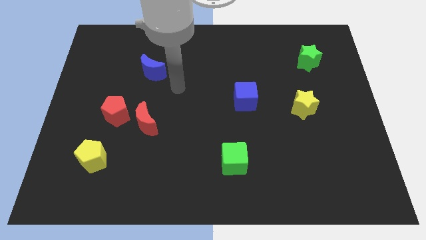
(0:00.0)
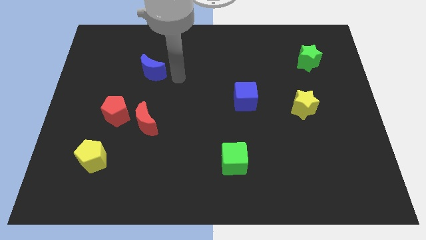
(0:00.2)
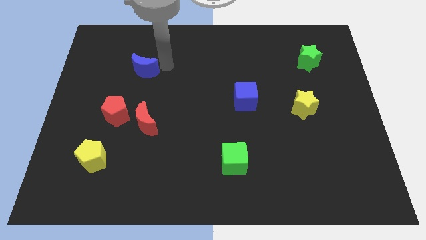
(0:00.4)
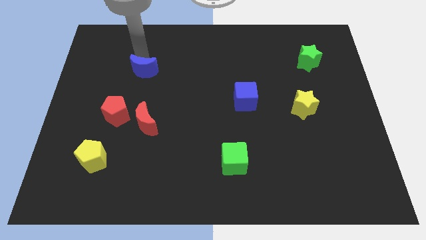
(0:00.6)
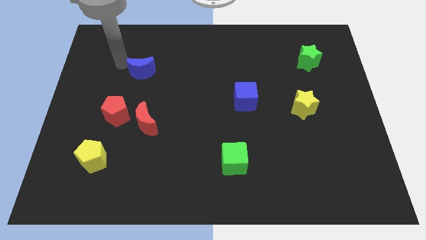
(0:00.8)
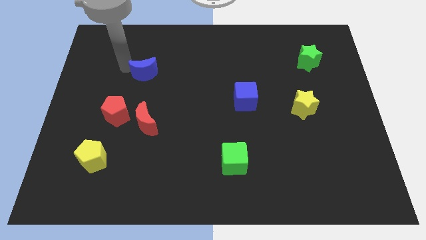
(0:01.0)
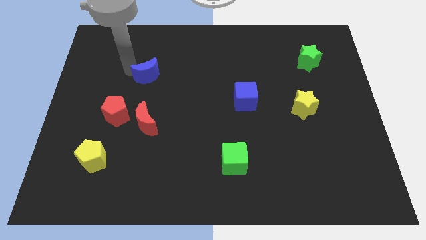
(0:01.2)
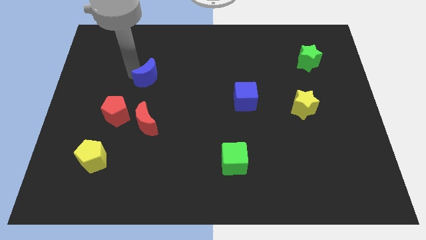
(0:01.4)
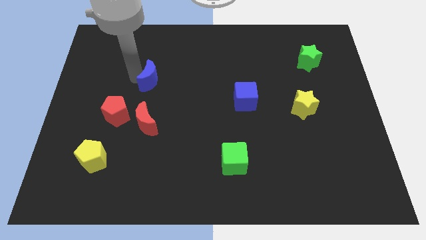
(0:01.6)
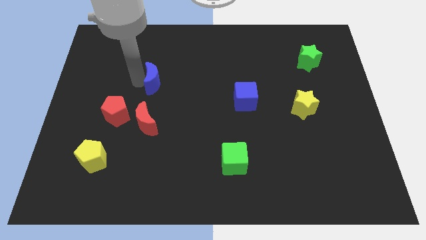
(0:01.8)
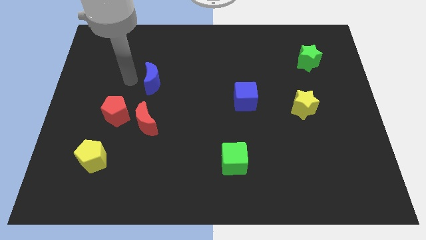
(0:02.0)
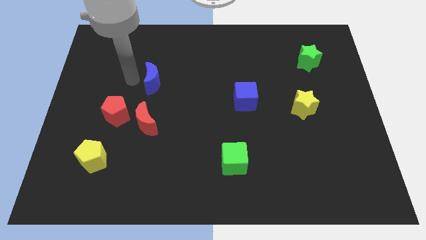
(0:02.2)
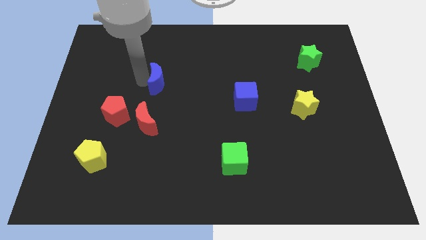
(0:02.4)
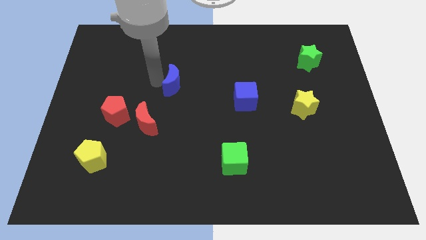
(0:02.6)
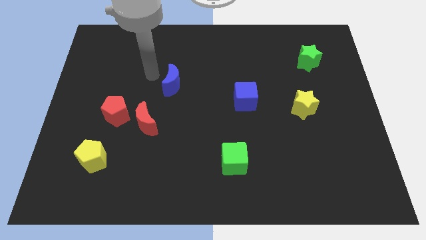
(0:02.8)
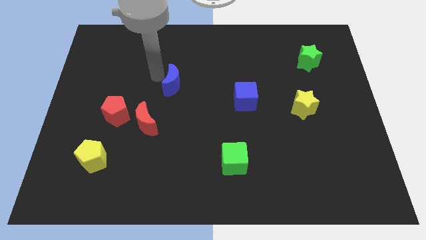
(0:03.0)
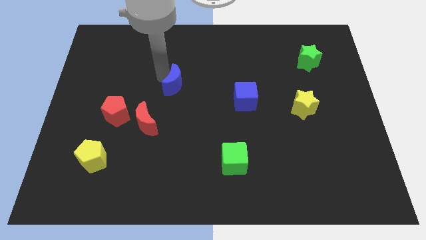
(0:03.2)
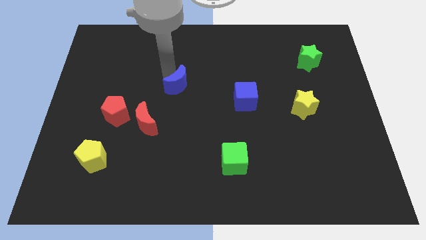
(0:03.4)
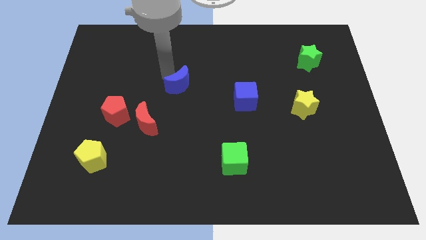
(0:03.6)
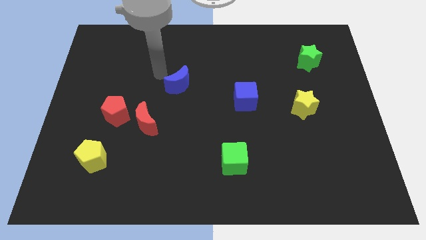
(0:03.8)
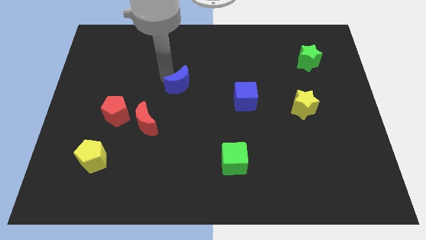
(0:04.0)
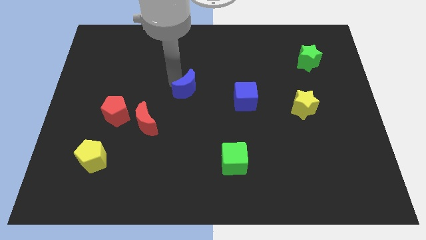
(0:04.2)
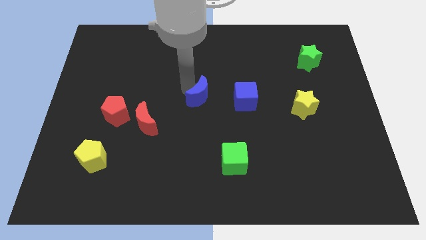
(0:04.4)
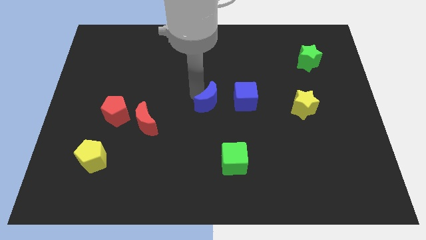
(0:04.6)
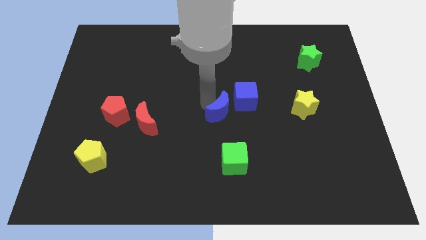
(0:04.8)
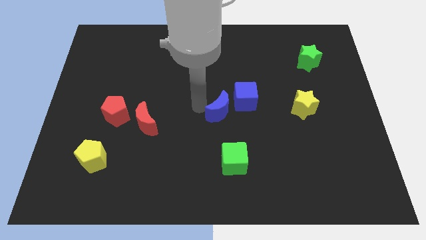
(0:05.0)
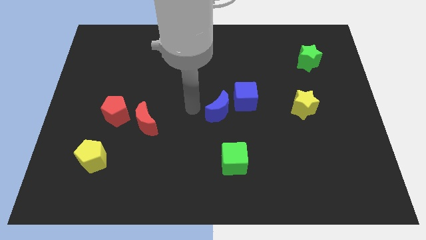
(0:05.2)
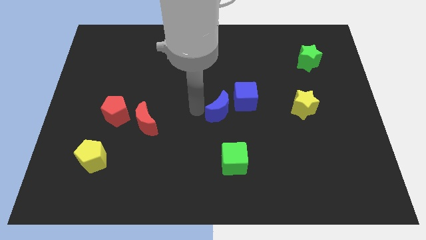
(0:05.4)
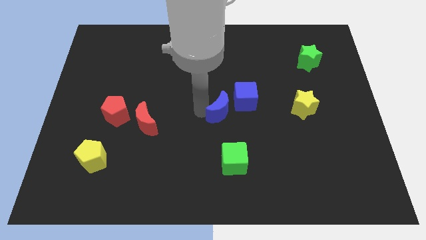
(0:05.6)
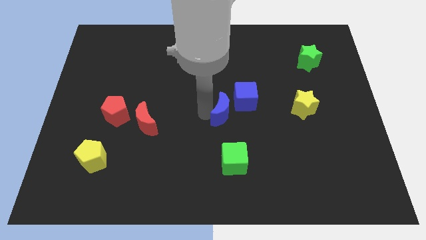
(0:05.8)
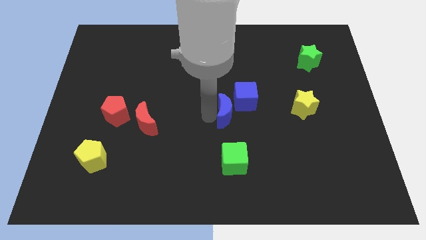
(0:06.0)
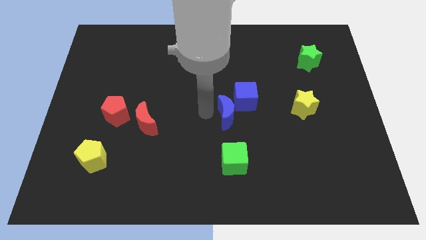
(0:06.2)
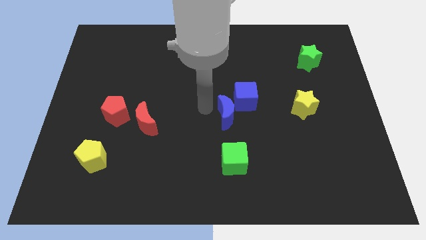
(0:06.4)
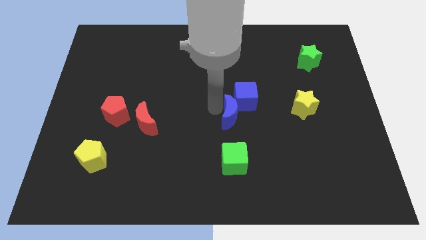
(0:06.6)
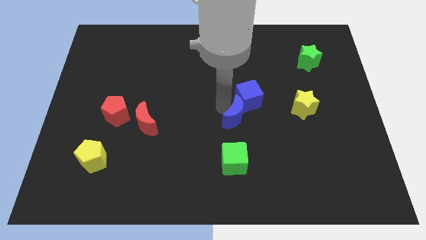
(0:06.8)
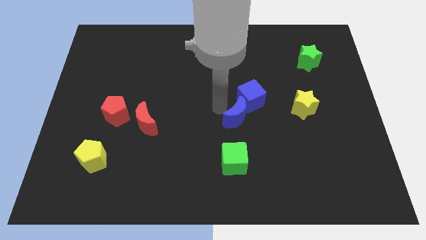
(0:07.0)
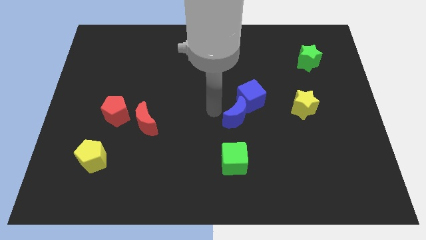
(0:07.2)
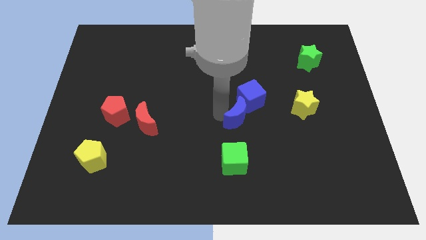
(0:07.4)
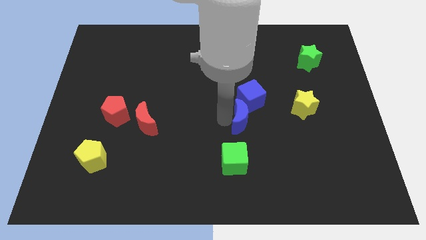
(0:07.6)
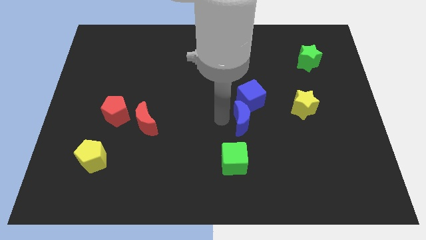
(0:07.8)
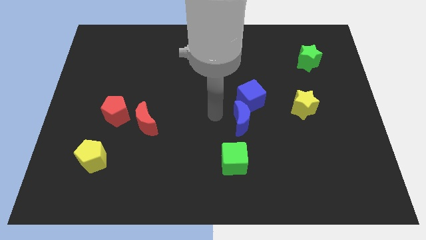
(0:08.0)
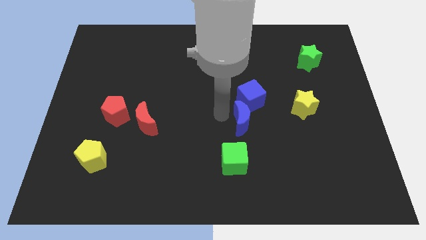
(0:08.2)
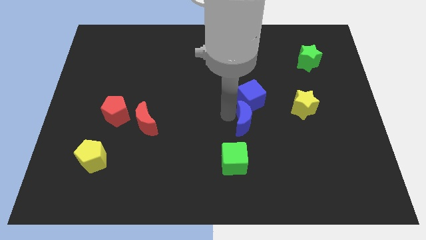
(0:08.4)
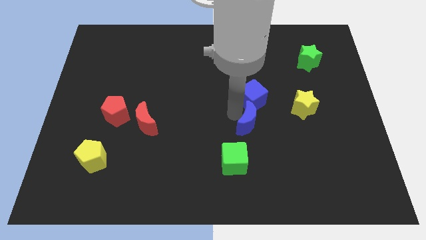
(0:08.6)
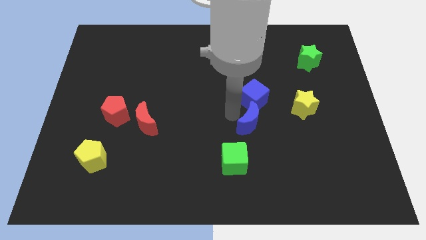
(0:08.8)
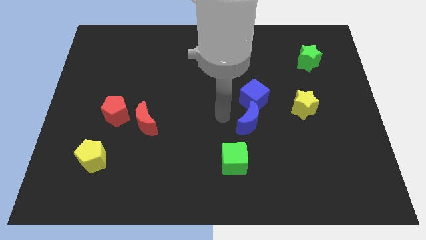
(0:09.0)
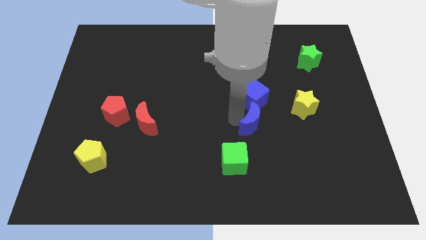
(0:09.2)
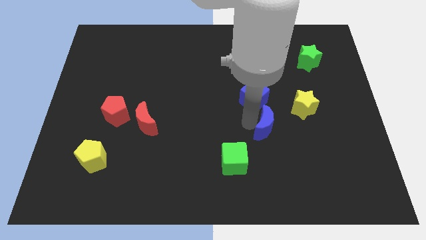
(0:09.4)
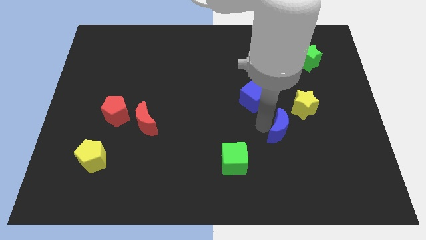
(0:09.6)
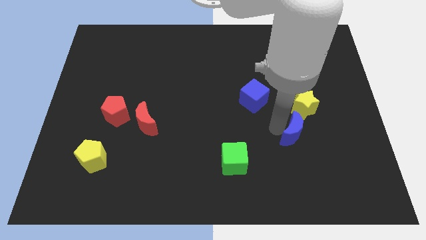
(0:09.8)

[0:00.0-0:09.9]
put the blue moon to the bottom side of the yellow star

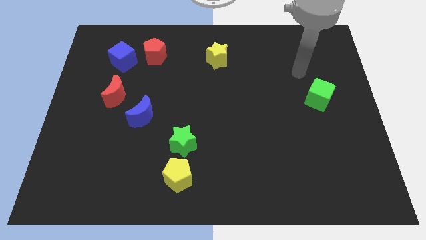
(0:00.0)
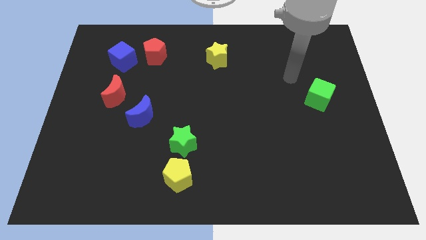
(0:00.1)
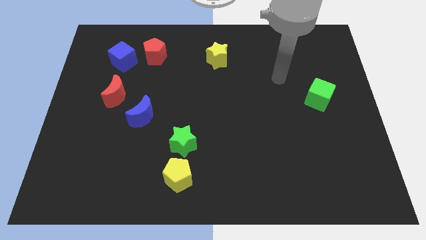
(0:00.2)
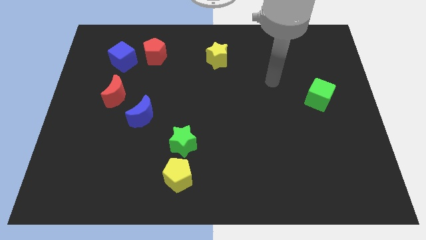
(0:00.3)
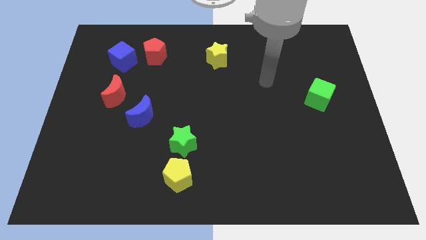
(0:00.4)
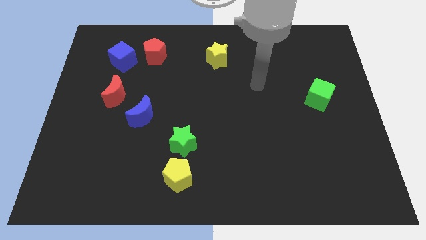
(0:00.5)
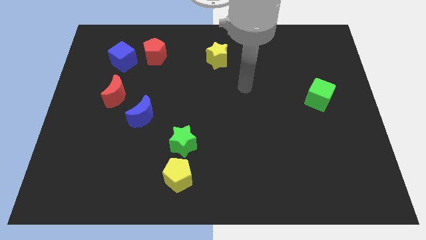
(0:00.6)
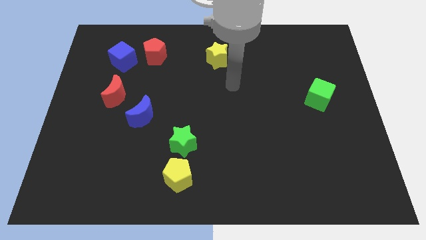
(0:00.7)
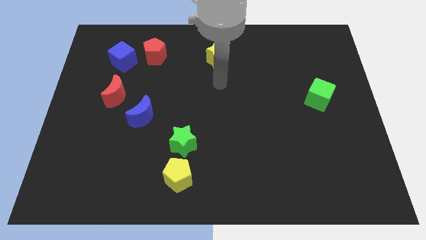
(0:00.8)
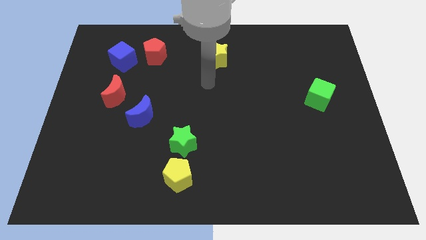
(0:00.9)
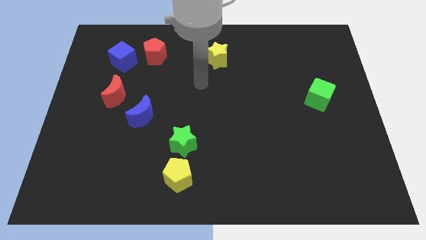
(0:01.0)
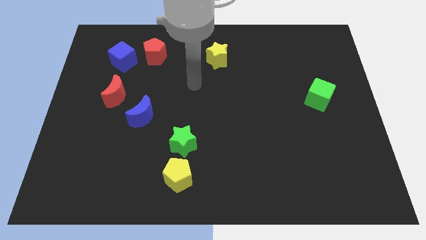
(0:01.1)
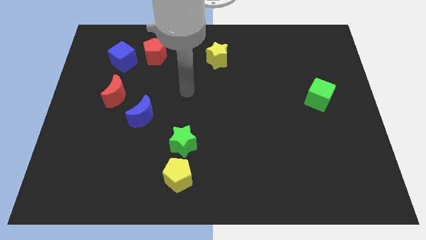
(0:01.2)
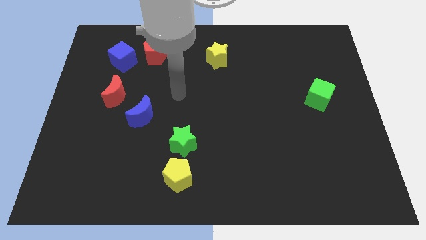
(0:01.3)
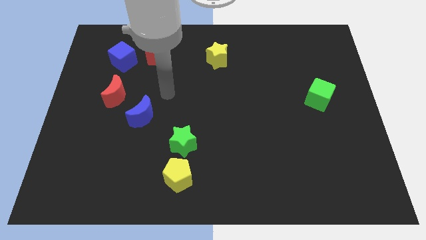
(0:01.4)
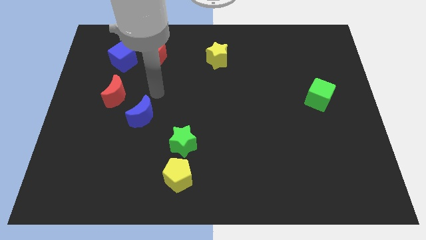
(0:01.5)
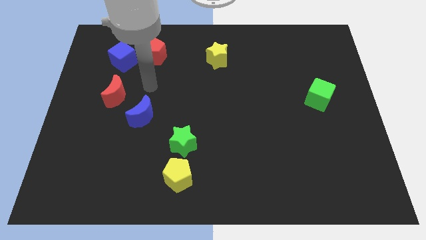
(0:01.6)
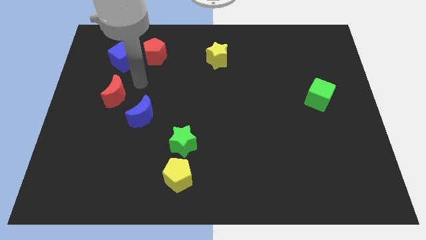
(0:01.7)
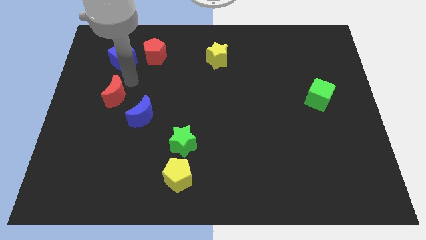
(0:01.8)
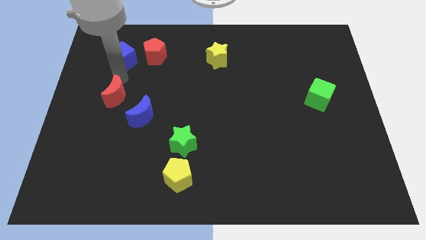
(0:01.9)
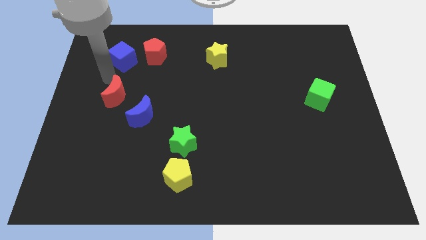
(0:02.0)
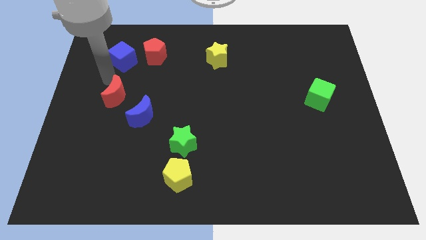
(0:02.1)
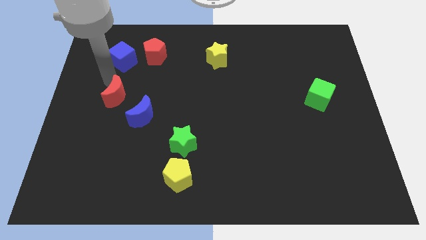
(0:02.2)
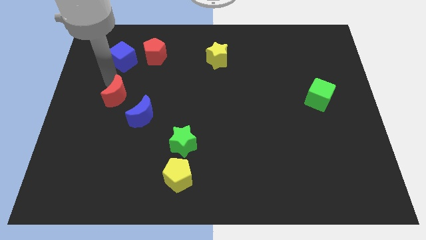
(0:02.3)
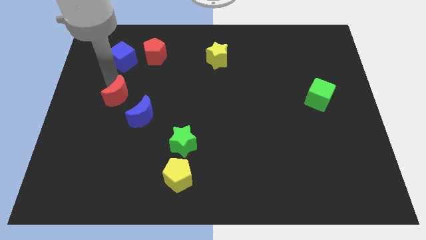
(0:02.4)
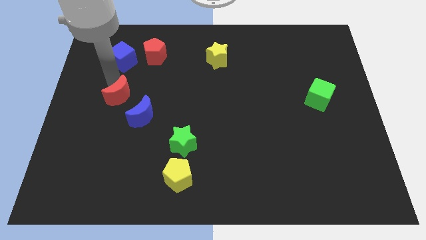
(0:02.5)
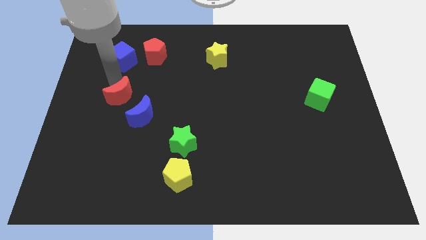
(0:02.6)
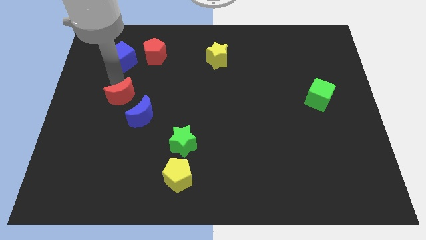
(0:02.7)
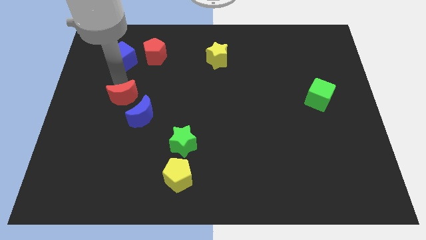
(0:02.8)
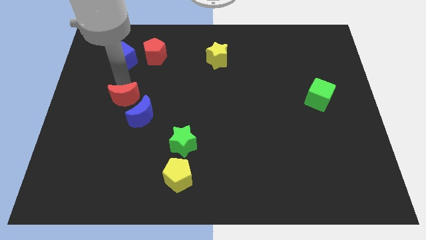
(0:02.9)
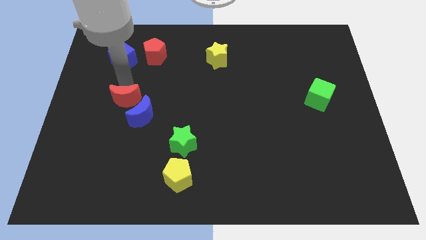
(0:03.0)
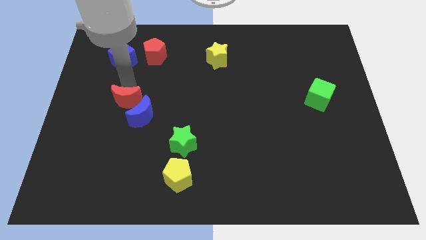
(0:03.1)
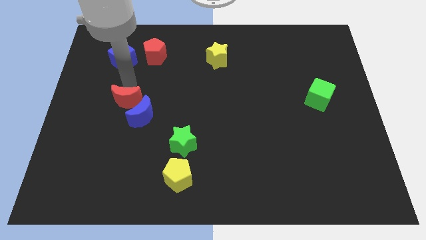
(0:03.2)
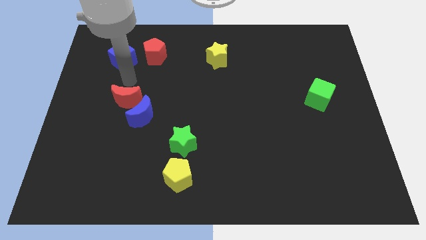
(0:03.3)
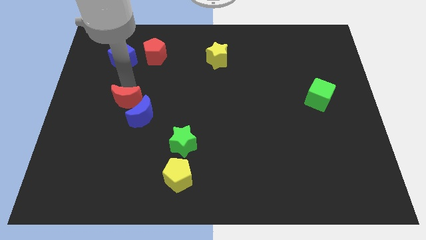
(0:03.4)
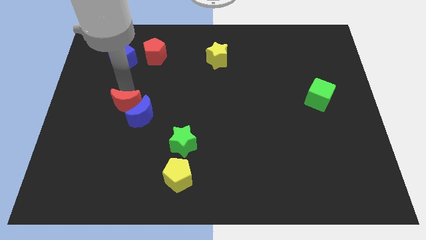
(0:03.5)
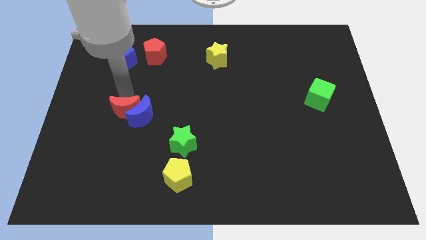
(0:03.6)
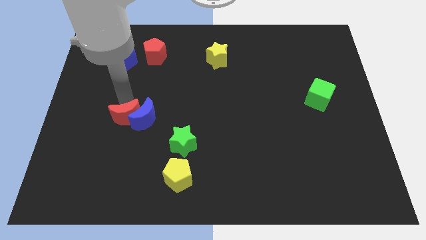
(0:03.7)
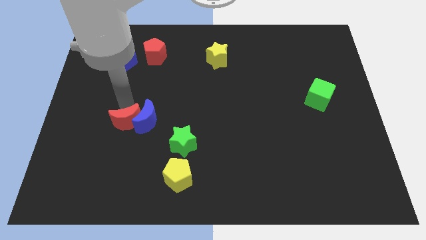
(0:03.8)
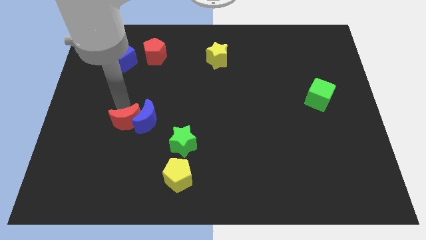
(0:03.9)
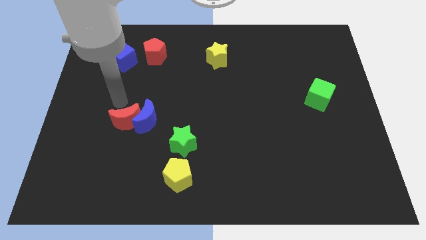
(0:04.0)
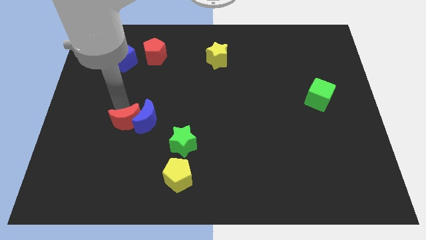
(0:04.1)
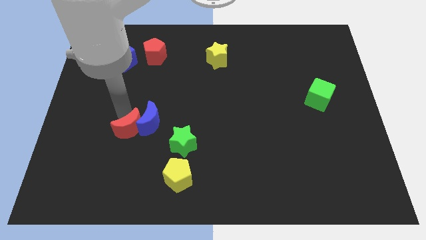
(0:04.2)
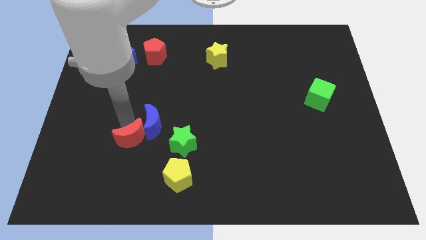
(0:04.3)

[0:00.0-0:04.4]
push the red moon below the blue moon
